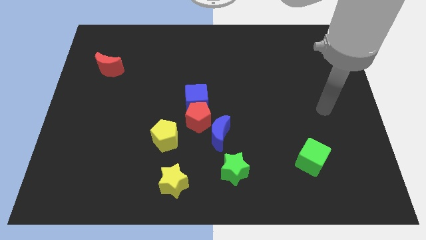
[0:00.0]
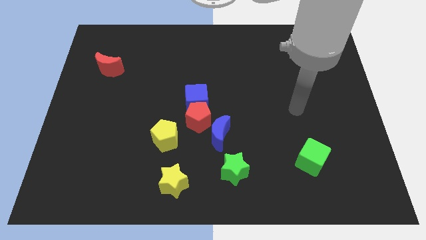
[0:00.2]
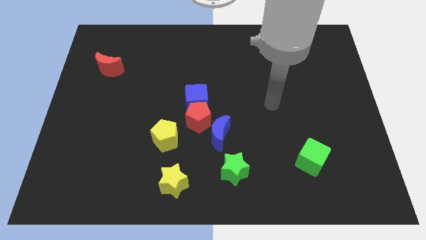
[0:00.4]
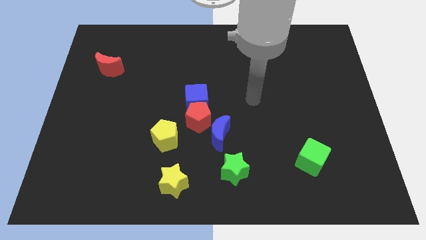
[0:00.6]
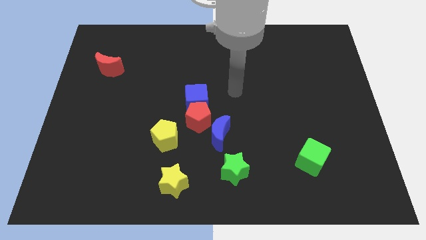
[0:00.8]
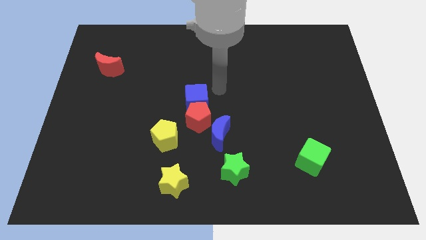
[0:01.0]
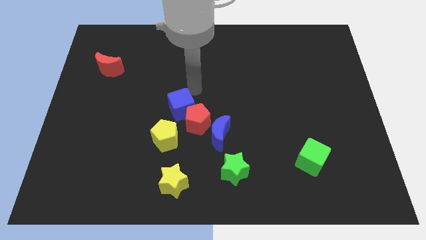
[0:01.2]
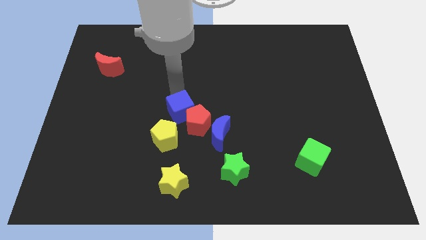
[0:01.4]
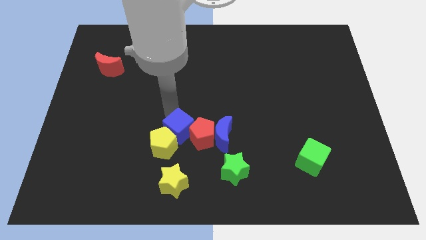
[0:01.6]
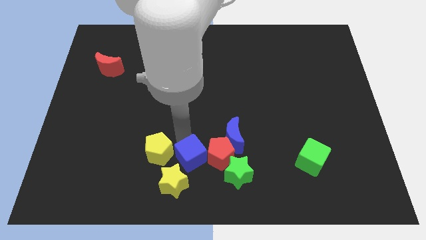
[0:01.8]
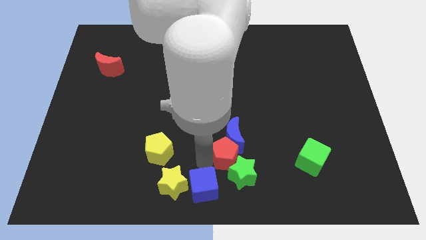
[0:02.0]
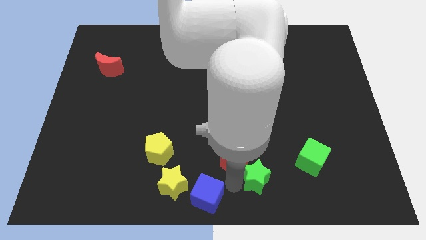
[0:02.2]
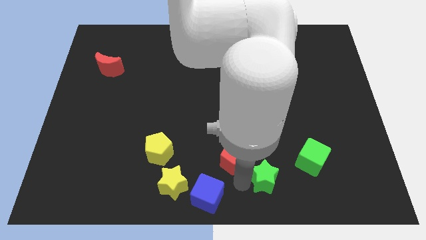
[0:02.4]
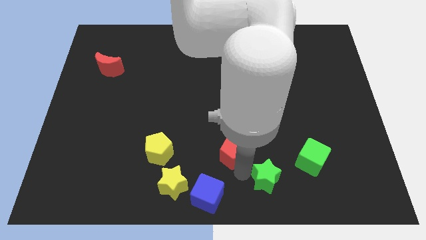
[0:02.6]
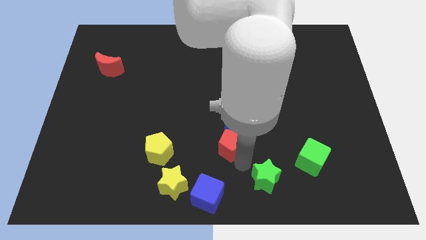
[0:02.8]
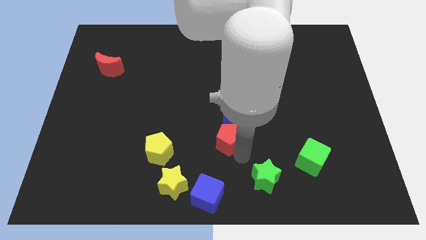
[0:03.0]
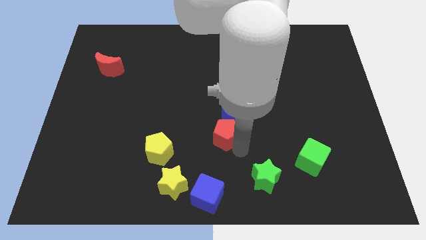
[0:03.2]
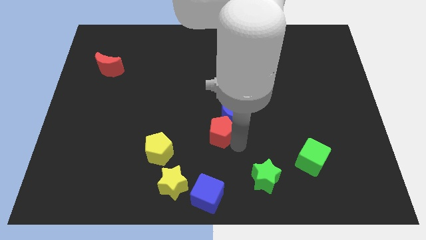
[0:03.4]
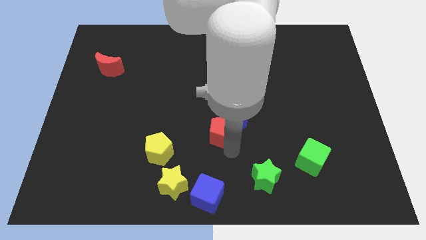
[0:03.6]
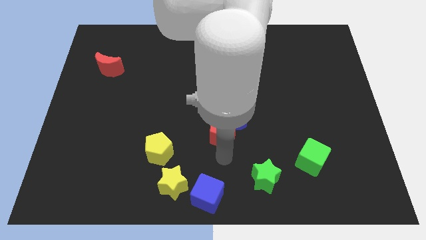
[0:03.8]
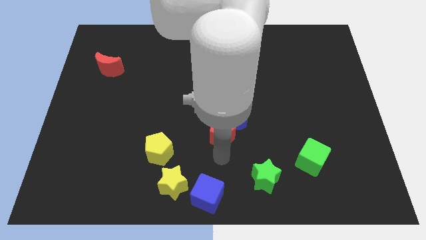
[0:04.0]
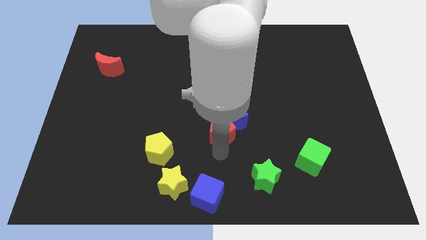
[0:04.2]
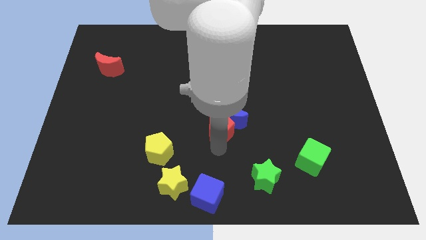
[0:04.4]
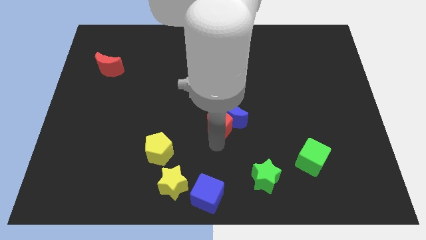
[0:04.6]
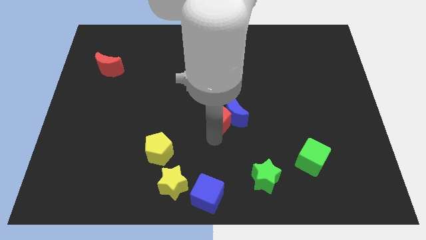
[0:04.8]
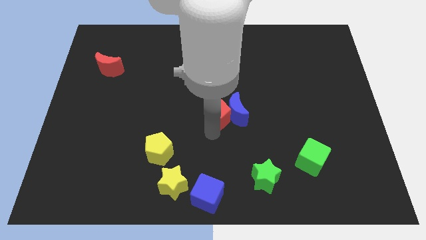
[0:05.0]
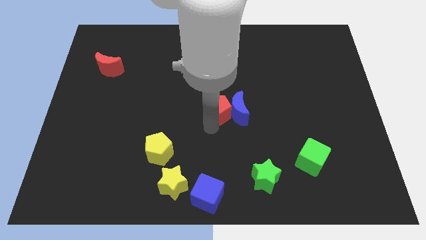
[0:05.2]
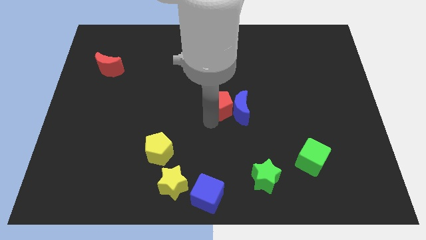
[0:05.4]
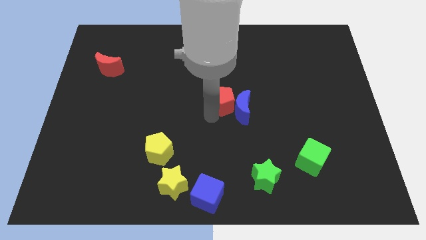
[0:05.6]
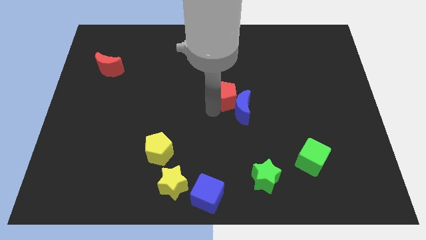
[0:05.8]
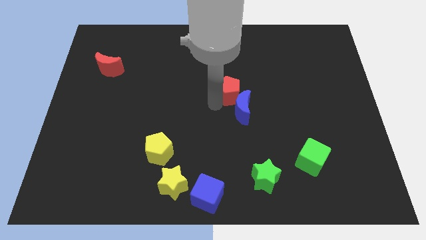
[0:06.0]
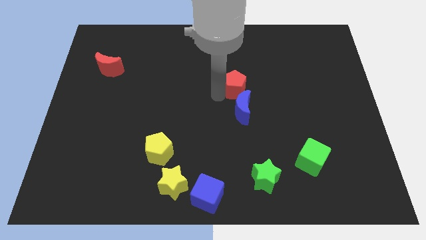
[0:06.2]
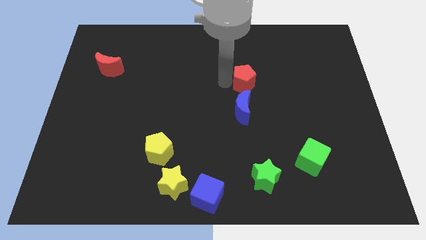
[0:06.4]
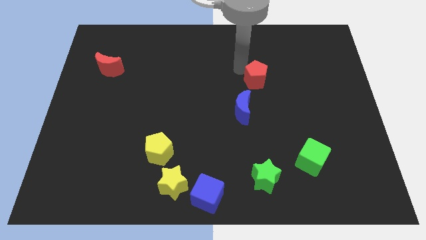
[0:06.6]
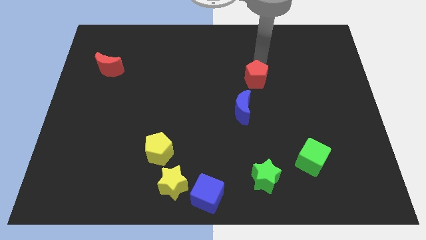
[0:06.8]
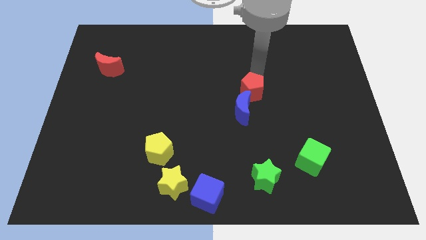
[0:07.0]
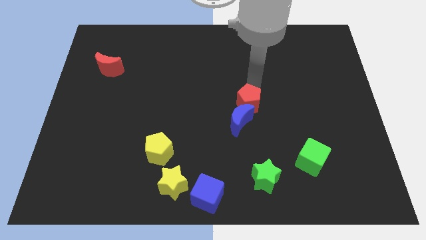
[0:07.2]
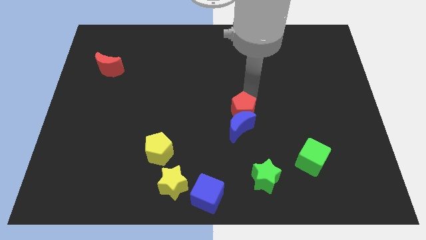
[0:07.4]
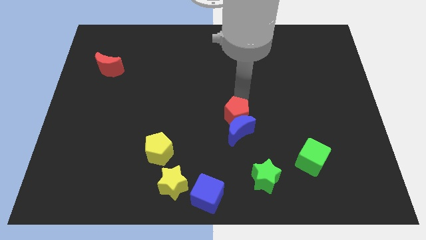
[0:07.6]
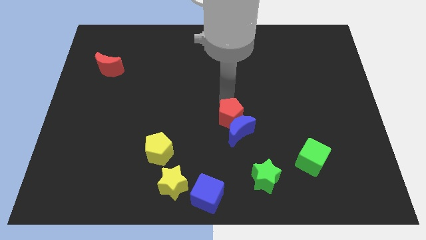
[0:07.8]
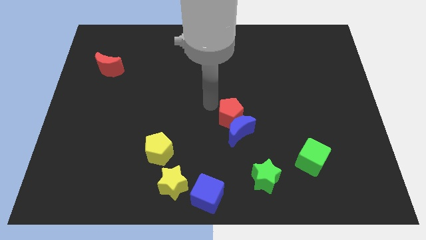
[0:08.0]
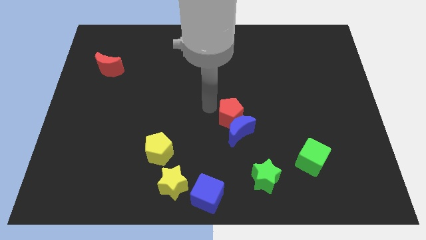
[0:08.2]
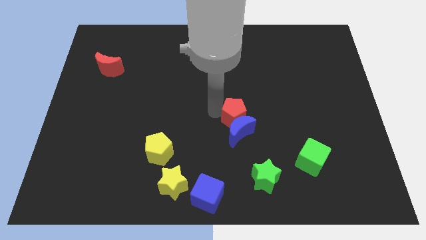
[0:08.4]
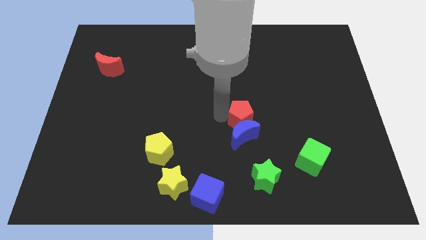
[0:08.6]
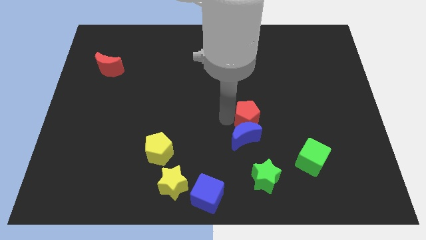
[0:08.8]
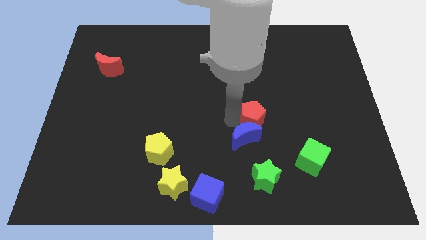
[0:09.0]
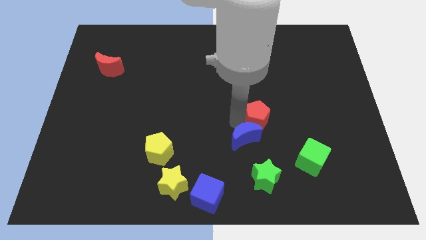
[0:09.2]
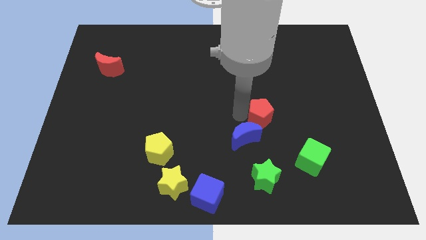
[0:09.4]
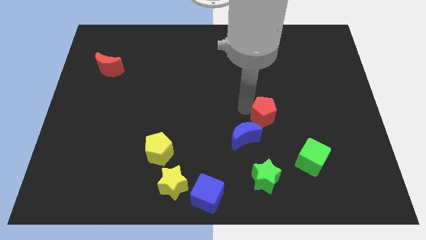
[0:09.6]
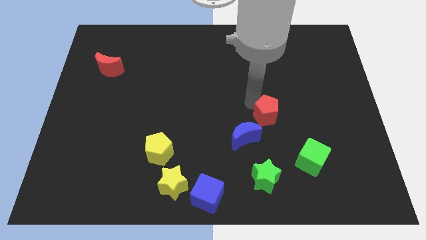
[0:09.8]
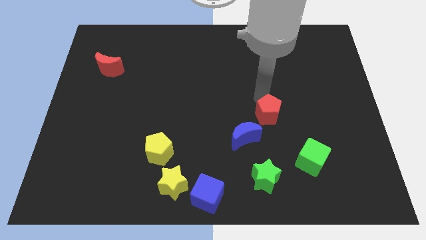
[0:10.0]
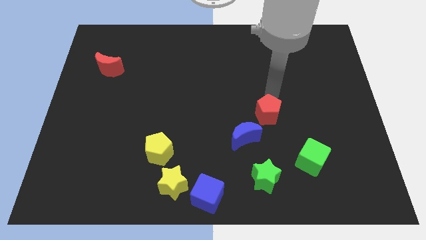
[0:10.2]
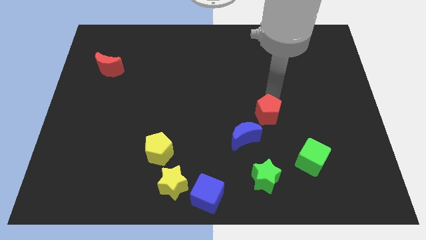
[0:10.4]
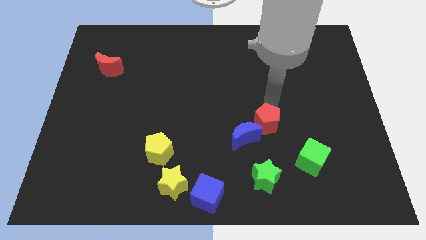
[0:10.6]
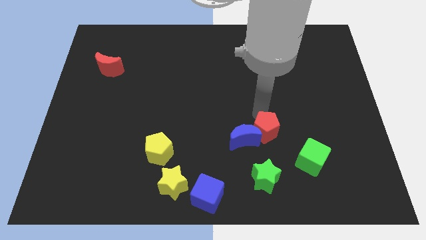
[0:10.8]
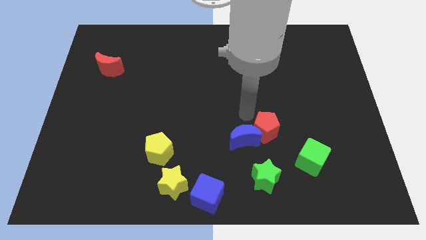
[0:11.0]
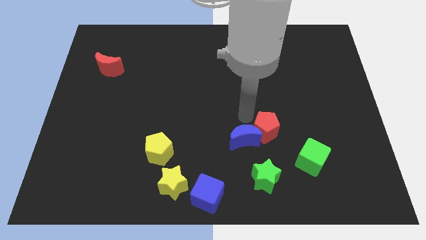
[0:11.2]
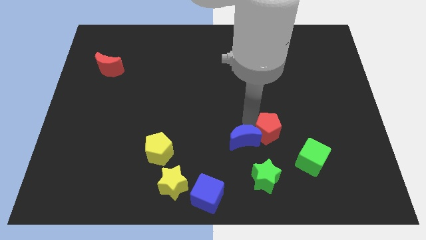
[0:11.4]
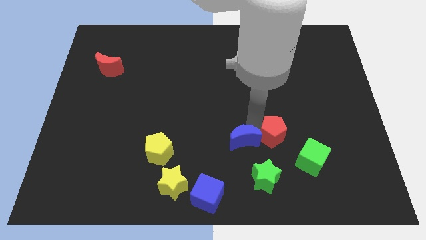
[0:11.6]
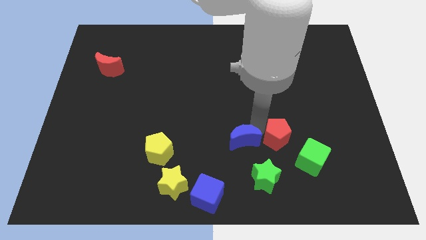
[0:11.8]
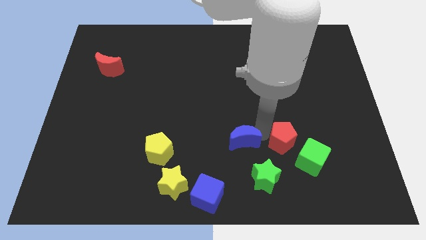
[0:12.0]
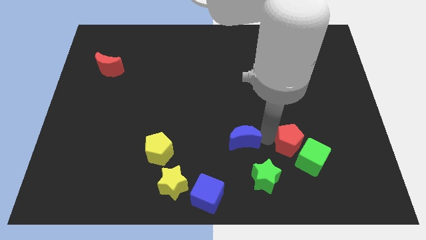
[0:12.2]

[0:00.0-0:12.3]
slide the red pentagon next to the green cube

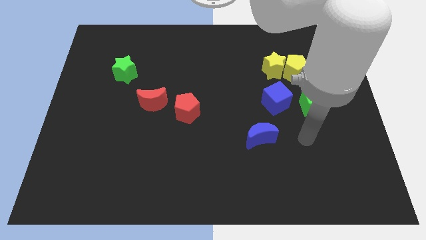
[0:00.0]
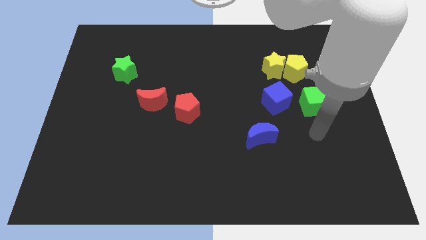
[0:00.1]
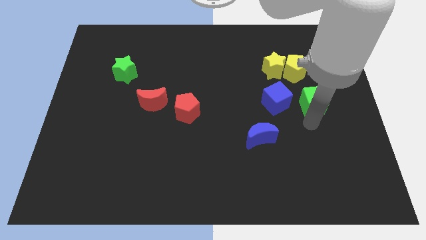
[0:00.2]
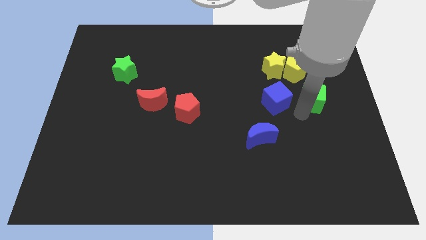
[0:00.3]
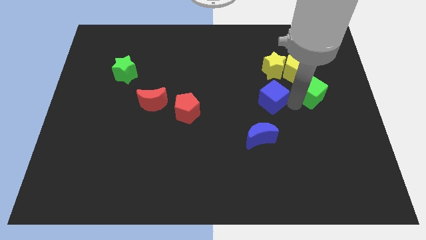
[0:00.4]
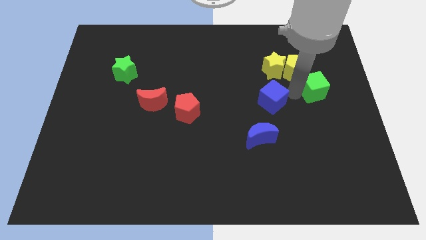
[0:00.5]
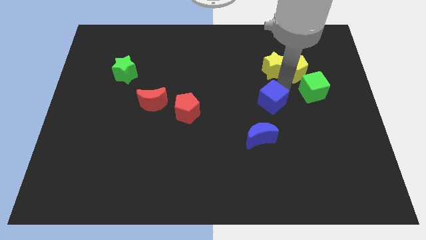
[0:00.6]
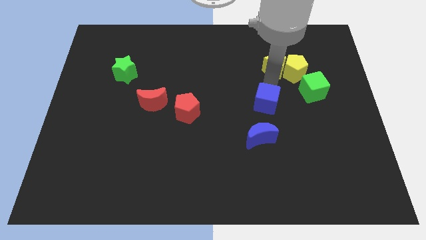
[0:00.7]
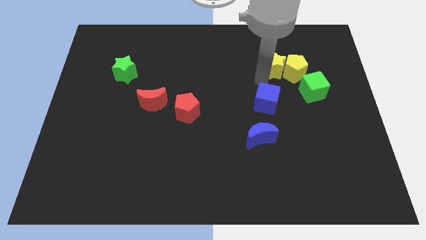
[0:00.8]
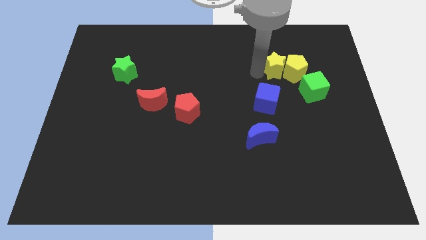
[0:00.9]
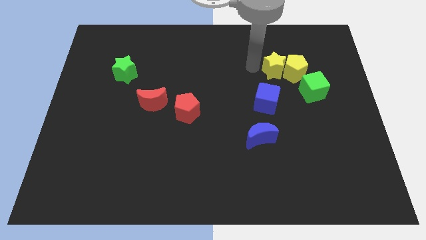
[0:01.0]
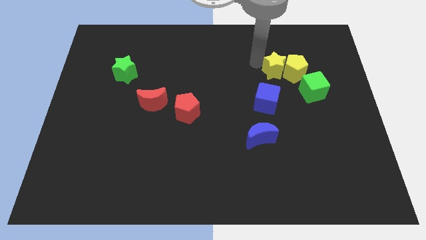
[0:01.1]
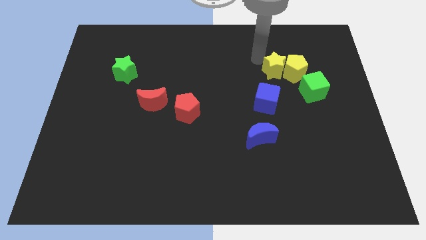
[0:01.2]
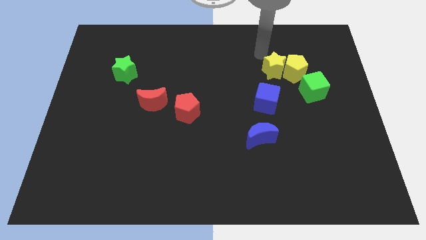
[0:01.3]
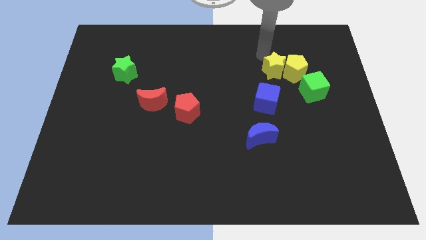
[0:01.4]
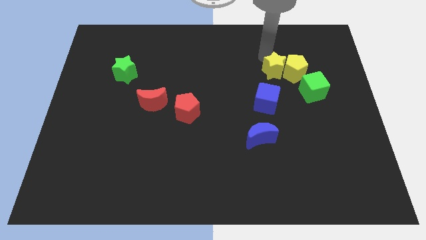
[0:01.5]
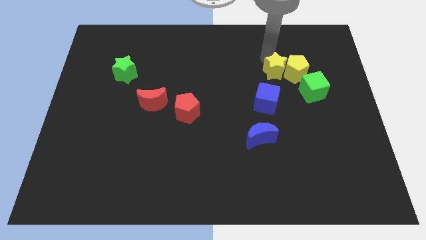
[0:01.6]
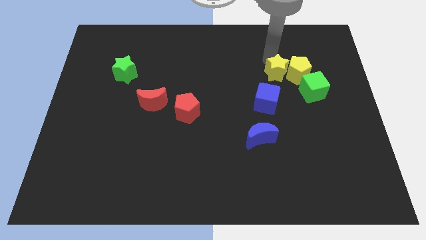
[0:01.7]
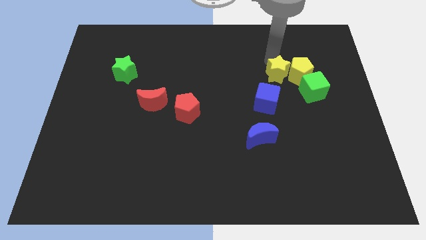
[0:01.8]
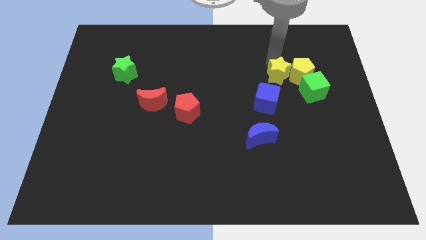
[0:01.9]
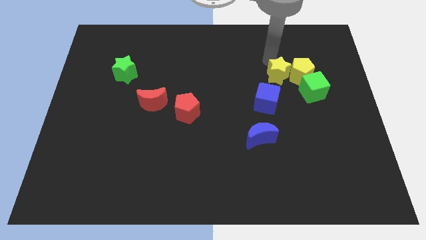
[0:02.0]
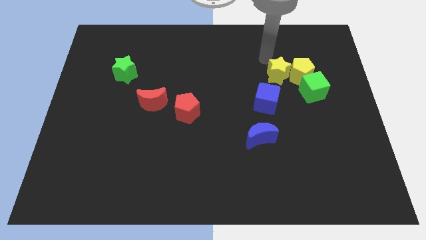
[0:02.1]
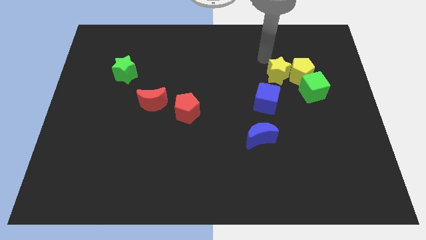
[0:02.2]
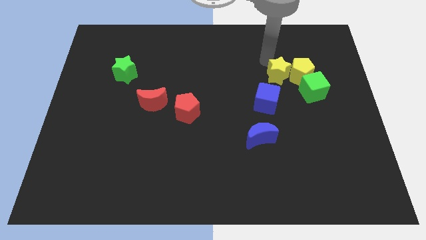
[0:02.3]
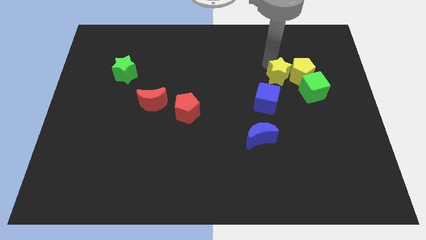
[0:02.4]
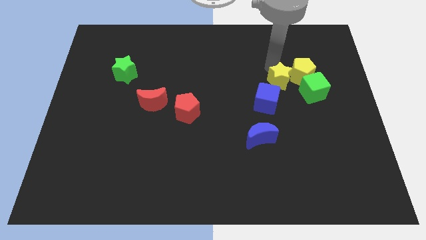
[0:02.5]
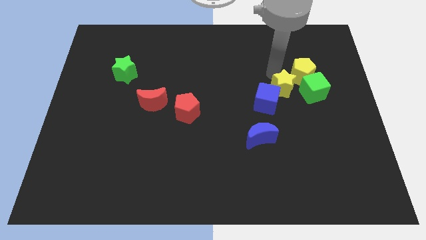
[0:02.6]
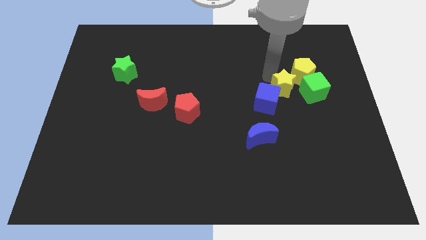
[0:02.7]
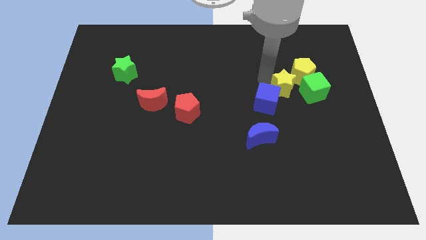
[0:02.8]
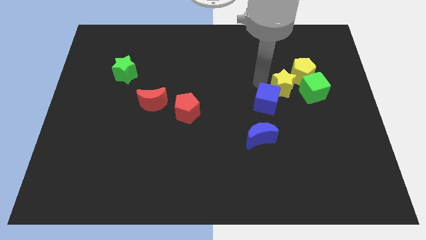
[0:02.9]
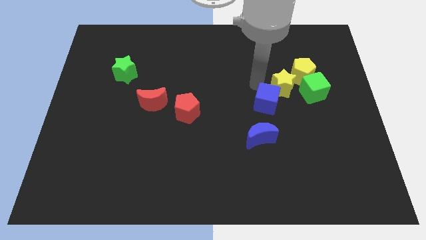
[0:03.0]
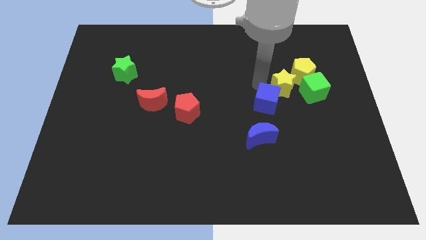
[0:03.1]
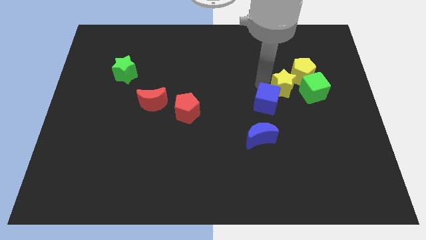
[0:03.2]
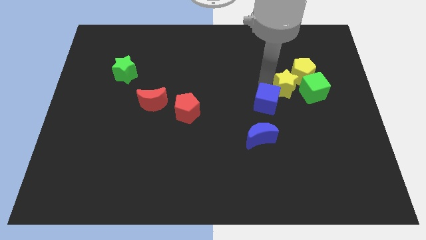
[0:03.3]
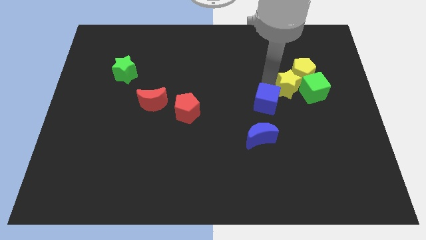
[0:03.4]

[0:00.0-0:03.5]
slide the yellow star next to the green cube
